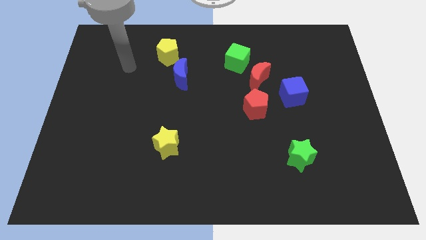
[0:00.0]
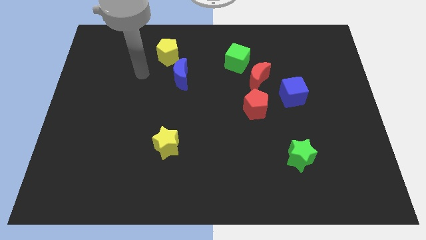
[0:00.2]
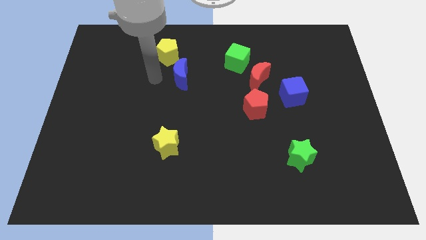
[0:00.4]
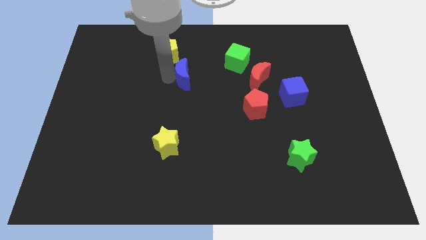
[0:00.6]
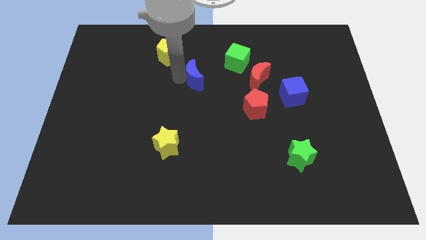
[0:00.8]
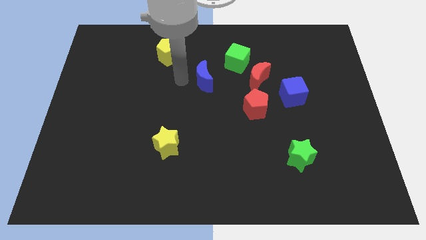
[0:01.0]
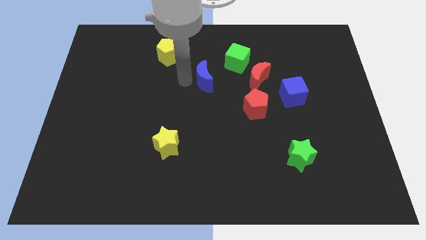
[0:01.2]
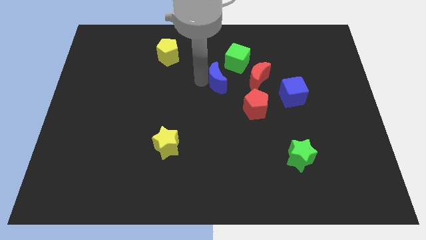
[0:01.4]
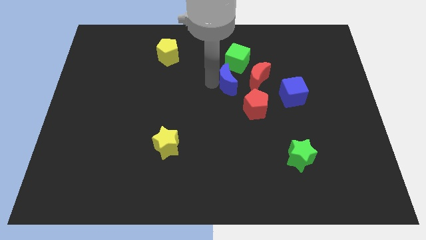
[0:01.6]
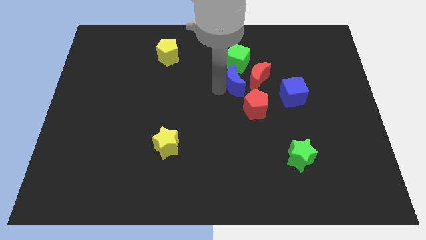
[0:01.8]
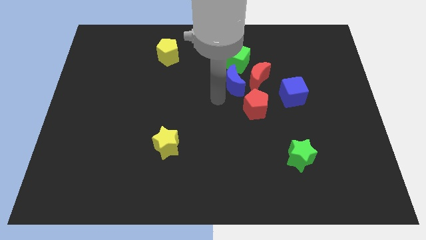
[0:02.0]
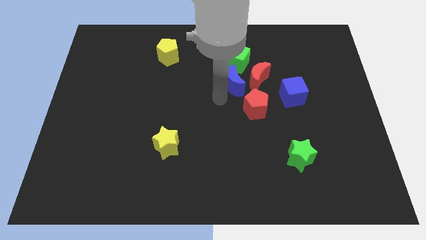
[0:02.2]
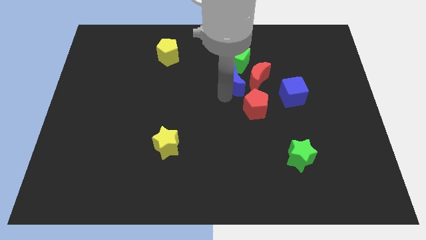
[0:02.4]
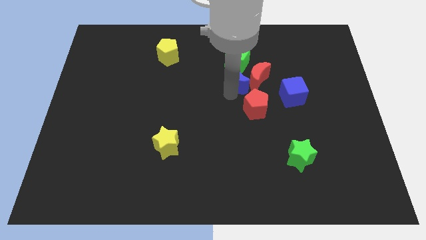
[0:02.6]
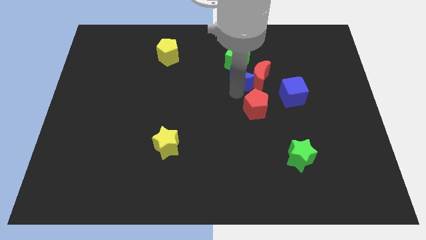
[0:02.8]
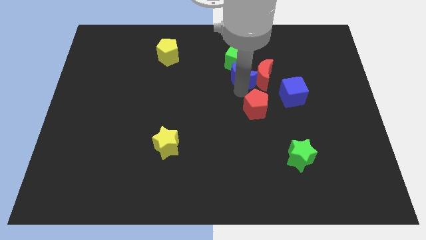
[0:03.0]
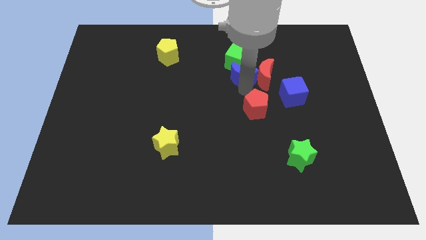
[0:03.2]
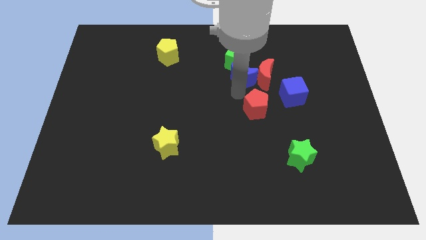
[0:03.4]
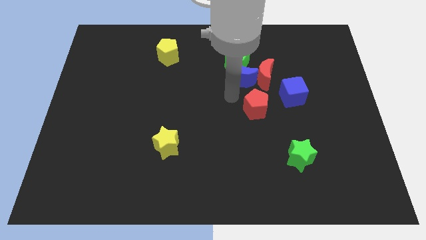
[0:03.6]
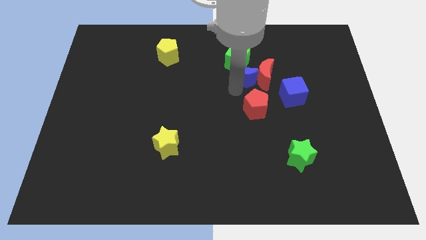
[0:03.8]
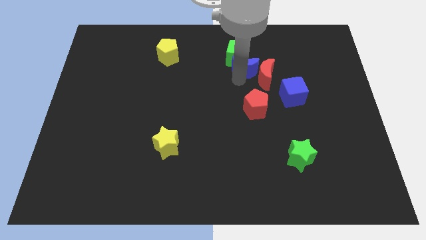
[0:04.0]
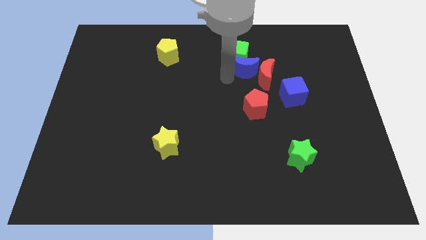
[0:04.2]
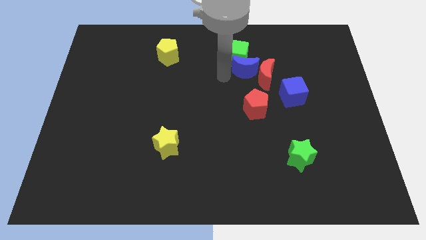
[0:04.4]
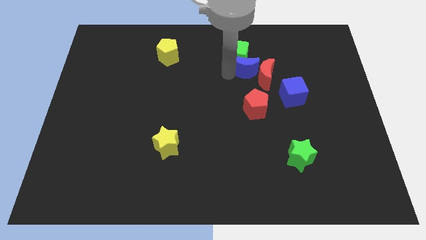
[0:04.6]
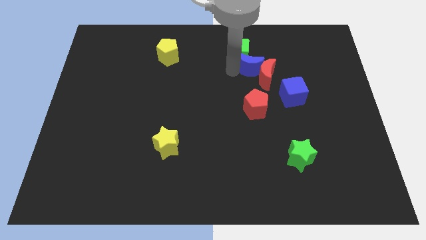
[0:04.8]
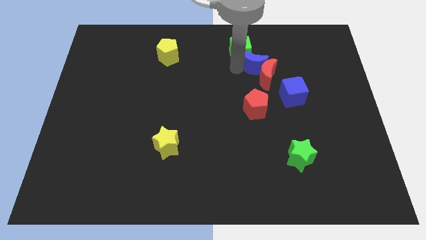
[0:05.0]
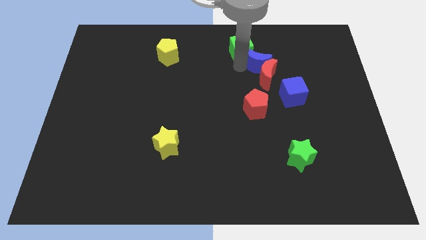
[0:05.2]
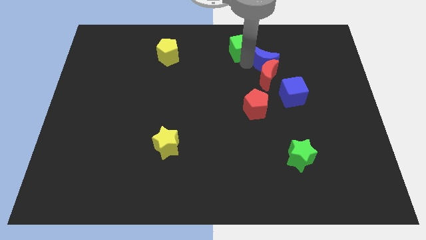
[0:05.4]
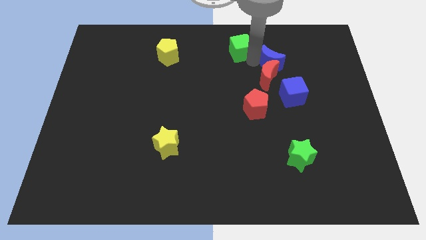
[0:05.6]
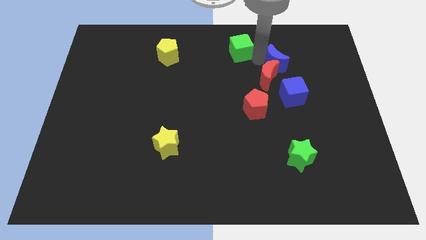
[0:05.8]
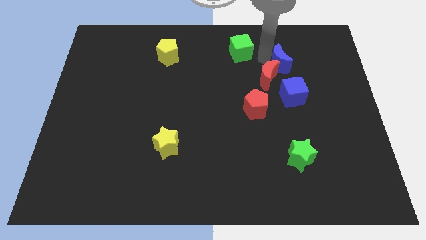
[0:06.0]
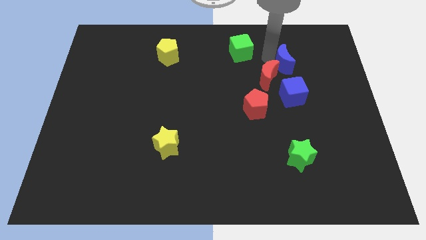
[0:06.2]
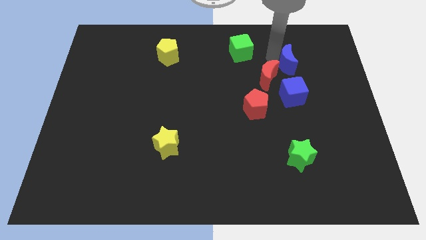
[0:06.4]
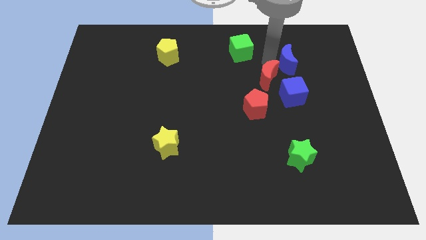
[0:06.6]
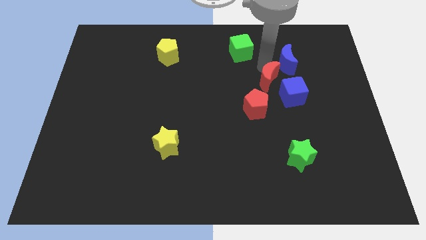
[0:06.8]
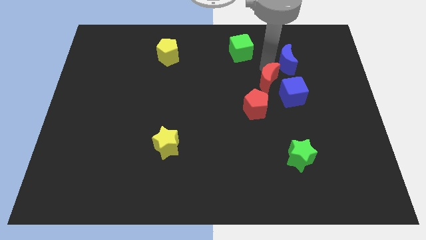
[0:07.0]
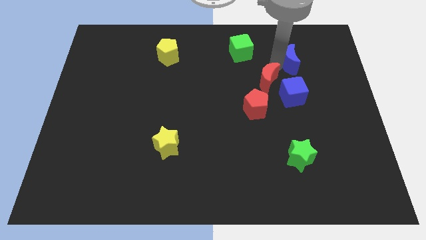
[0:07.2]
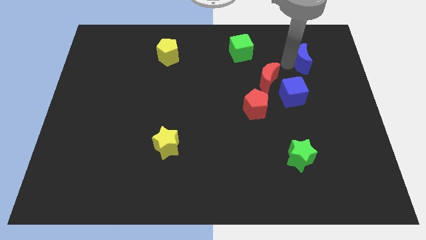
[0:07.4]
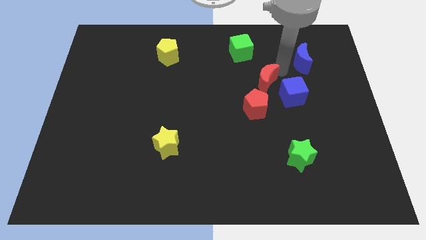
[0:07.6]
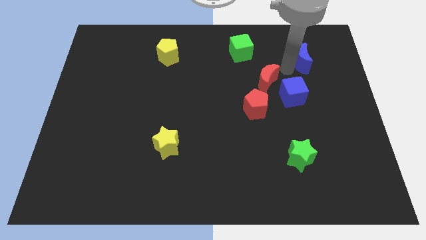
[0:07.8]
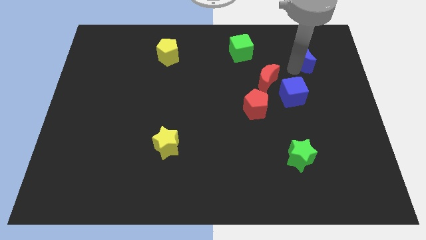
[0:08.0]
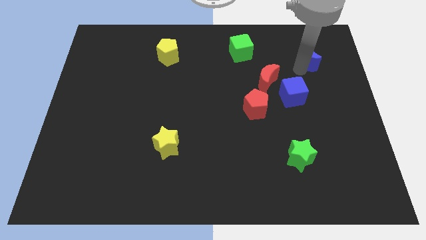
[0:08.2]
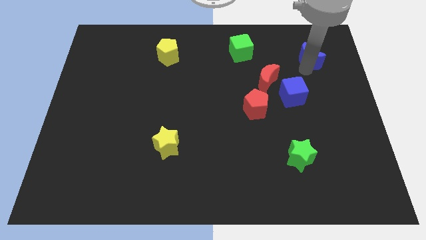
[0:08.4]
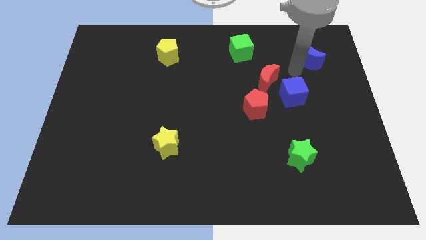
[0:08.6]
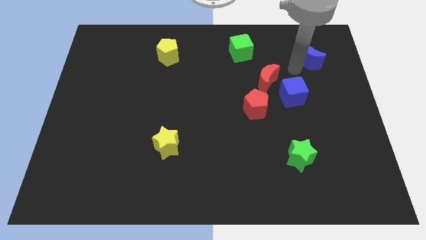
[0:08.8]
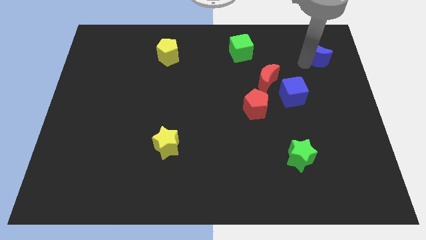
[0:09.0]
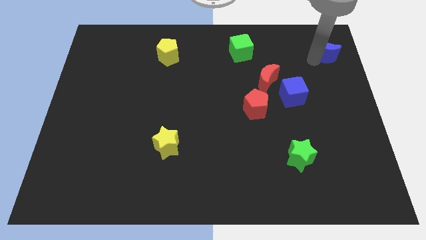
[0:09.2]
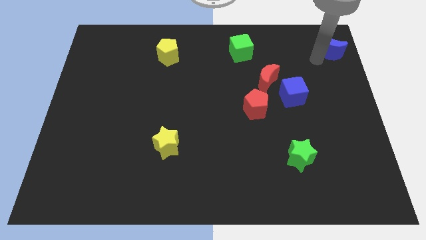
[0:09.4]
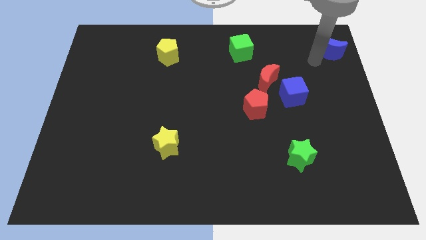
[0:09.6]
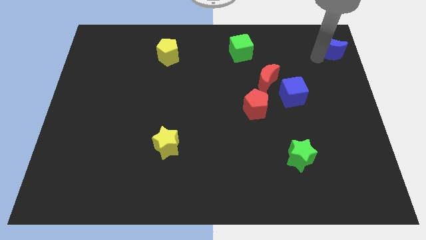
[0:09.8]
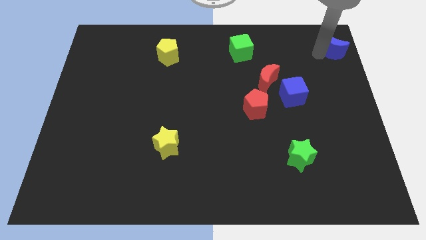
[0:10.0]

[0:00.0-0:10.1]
put the blue moon to the upper right corner

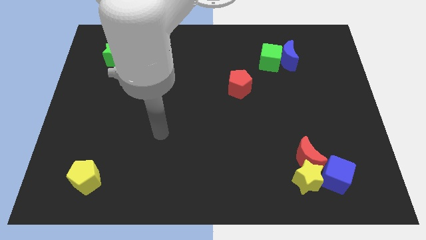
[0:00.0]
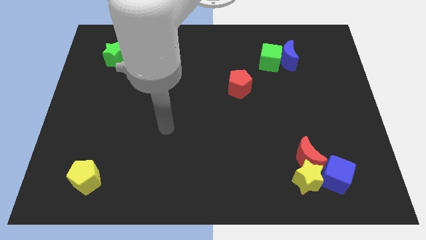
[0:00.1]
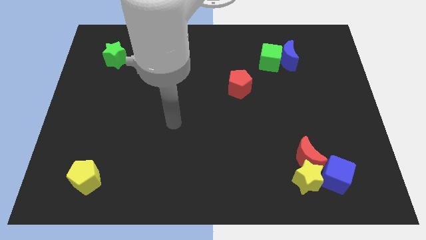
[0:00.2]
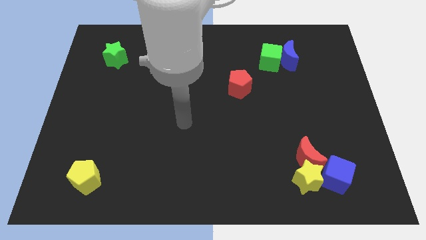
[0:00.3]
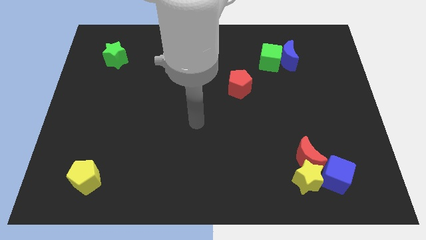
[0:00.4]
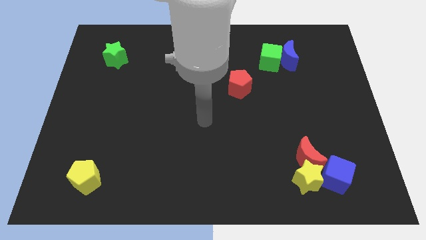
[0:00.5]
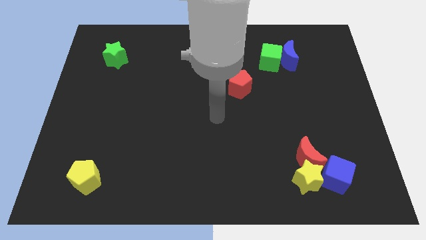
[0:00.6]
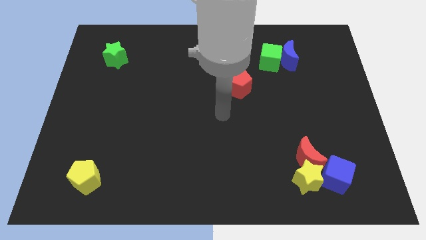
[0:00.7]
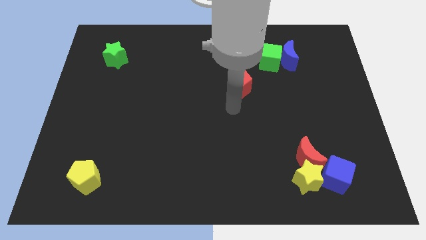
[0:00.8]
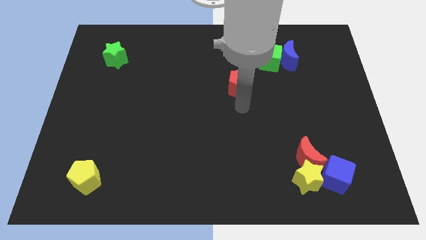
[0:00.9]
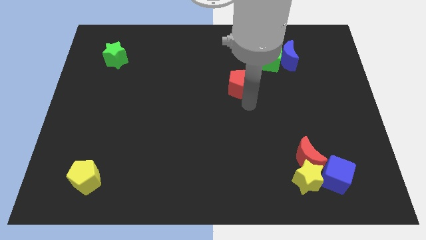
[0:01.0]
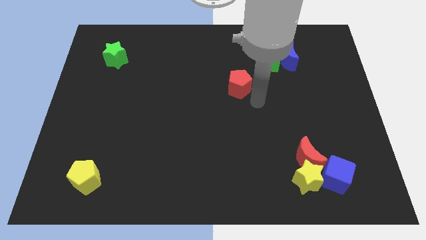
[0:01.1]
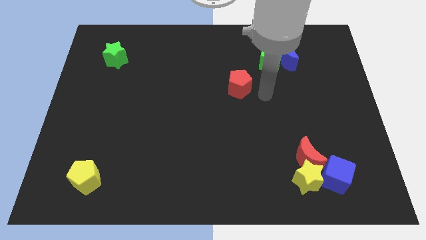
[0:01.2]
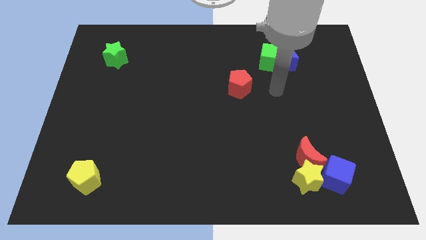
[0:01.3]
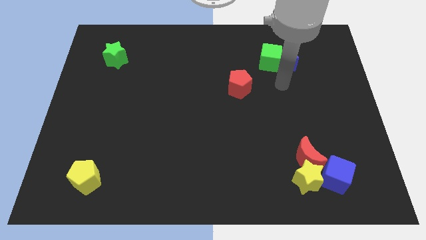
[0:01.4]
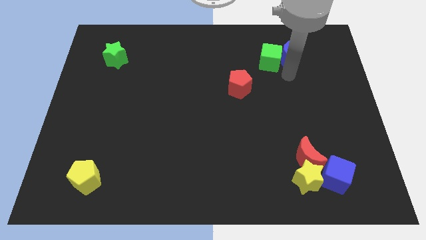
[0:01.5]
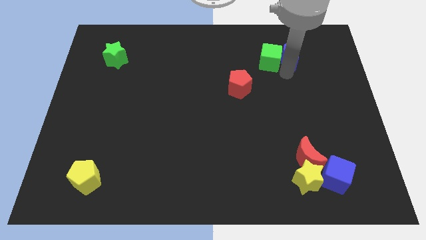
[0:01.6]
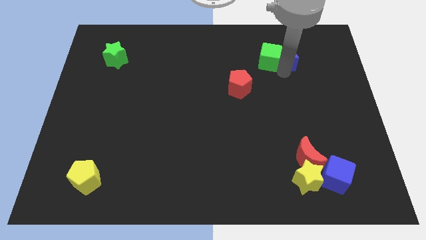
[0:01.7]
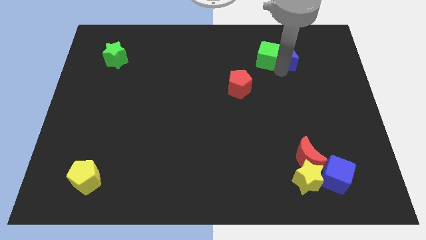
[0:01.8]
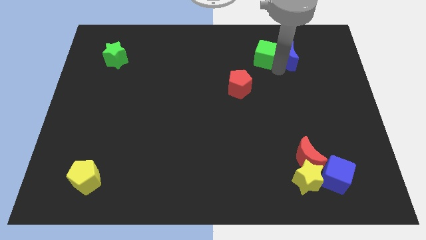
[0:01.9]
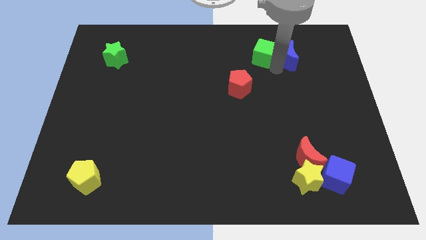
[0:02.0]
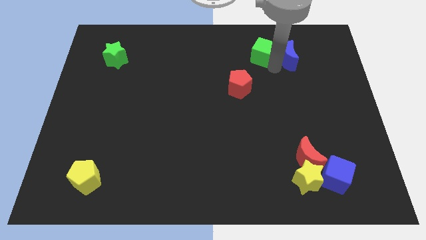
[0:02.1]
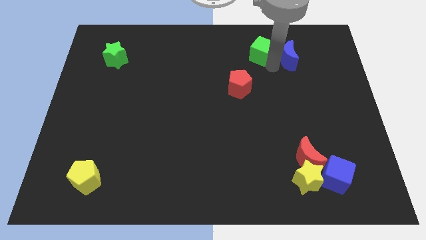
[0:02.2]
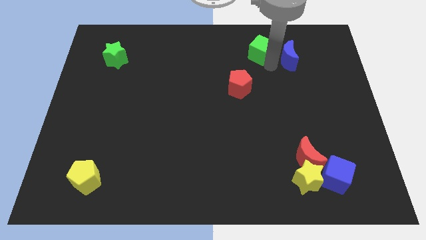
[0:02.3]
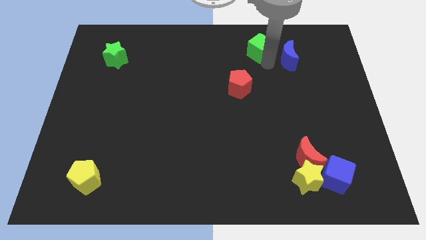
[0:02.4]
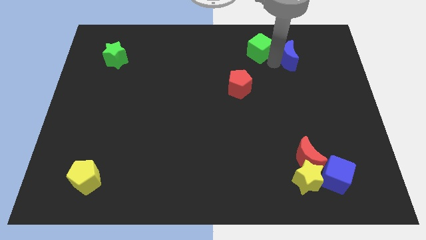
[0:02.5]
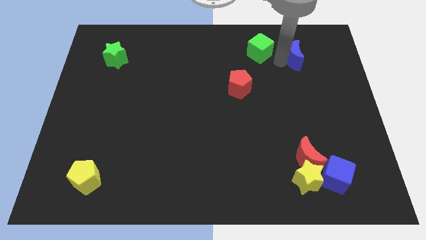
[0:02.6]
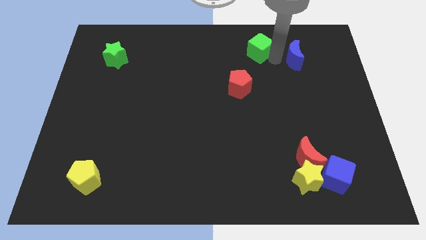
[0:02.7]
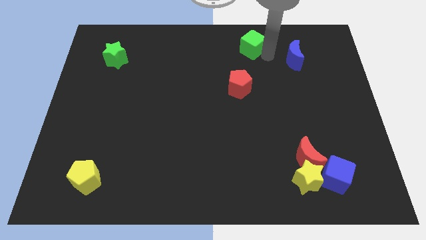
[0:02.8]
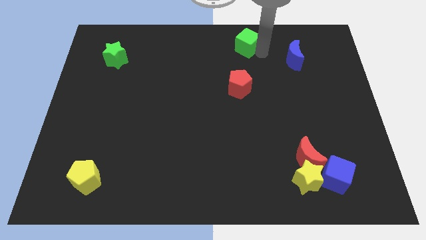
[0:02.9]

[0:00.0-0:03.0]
put the green cube to the towards your base
